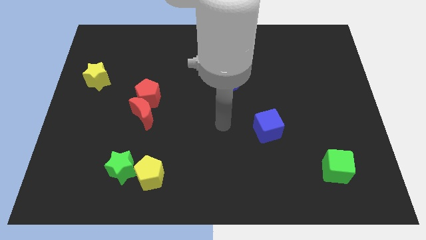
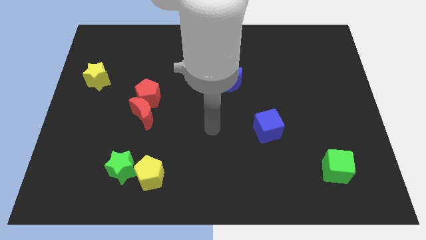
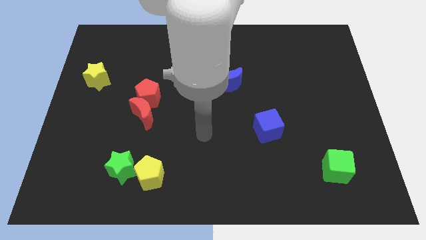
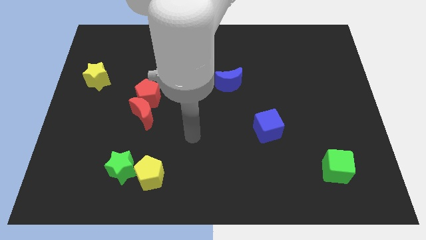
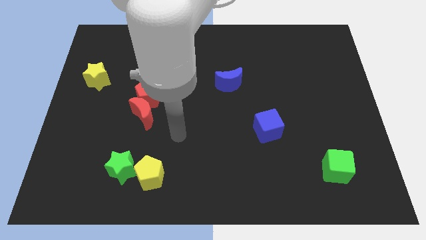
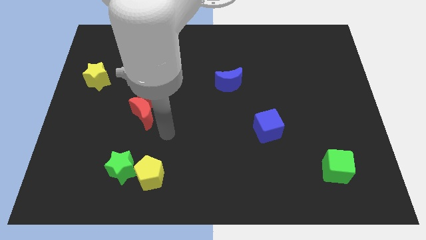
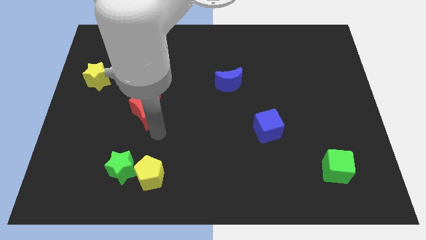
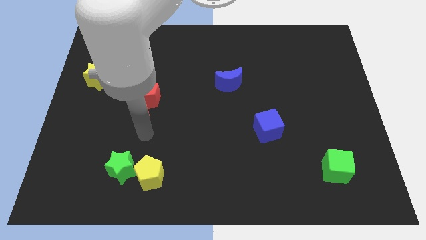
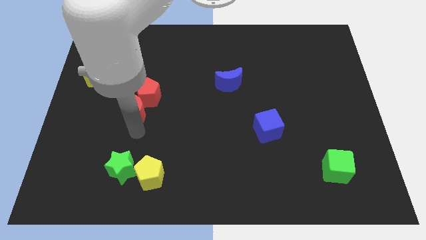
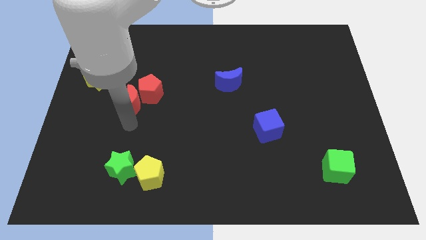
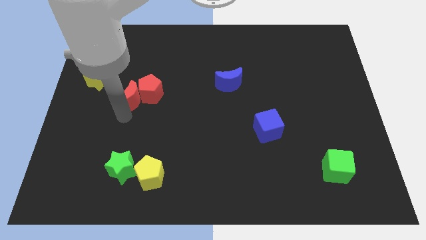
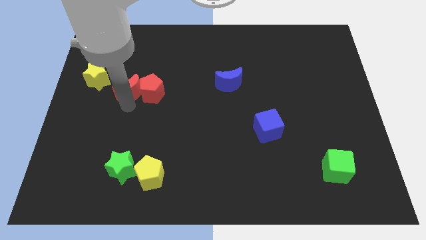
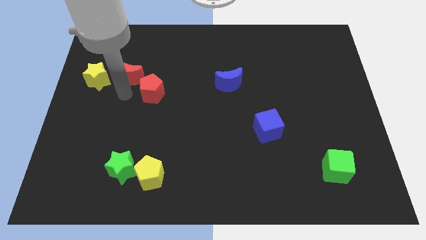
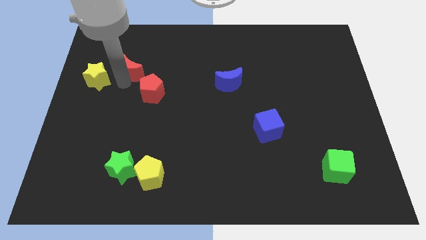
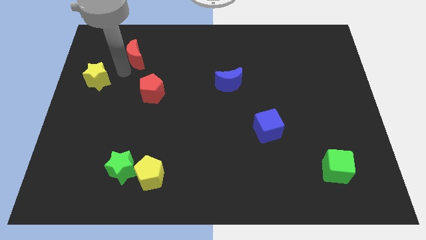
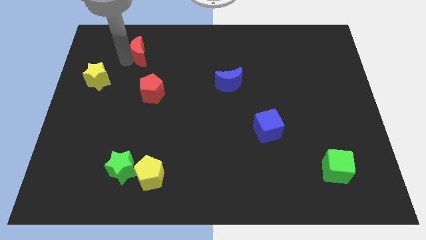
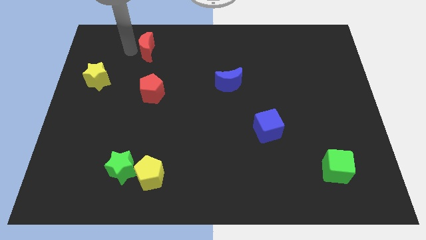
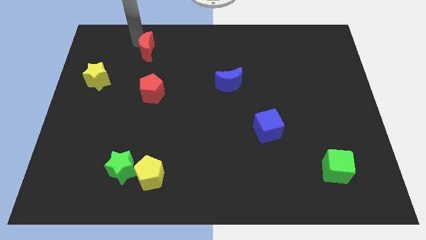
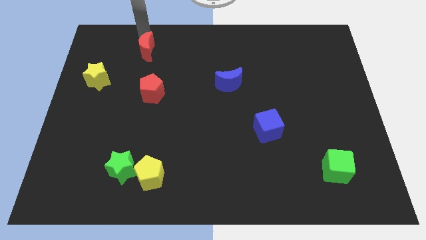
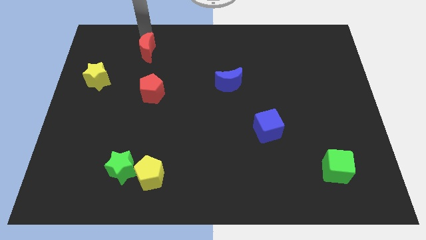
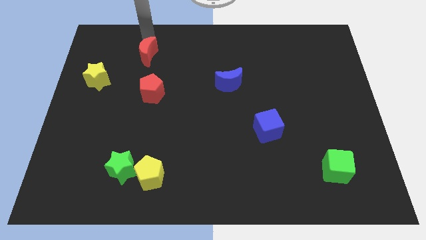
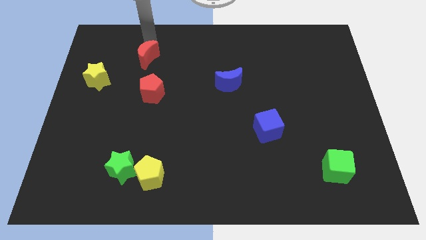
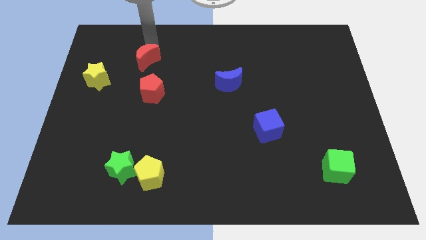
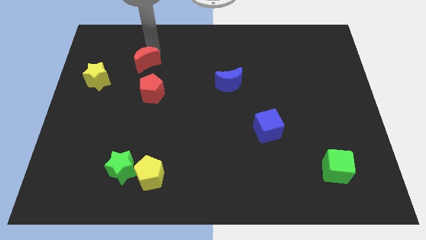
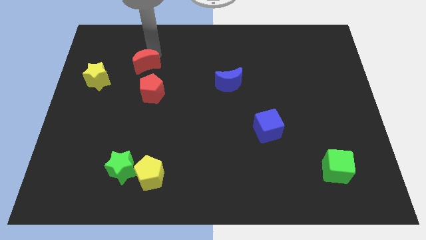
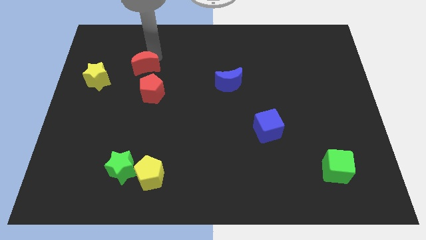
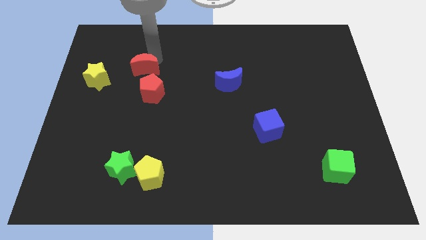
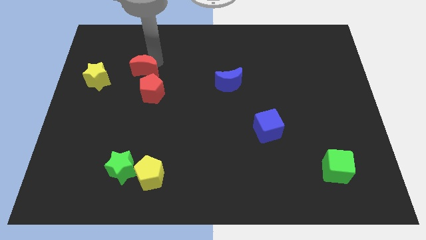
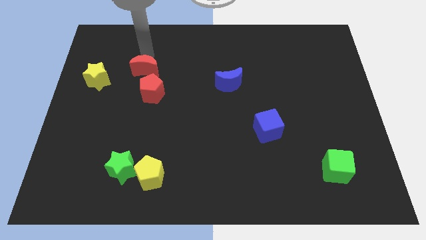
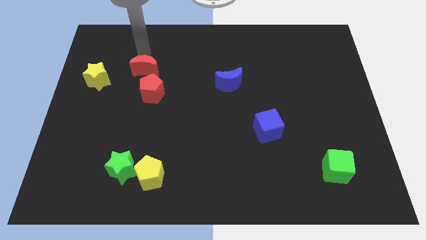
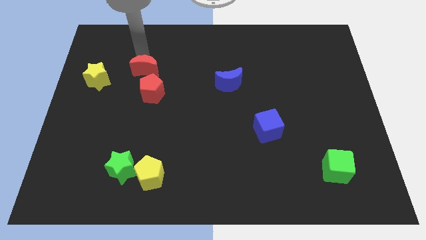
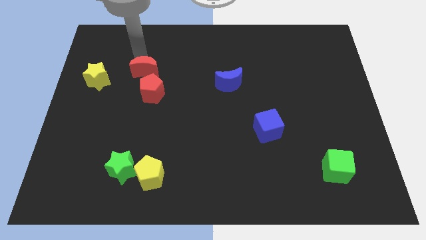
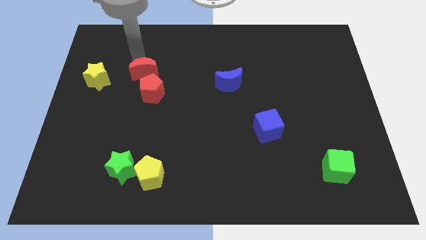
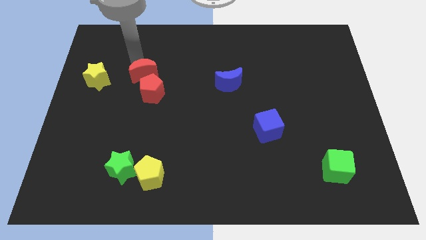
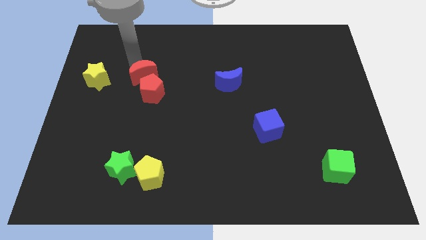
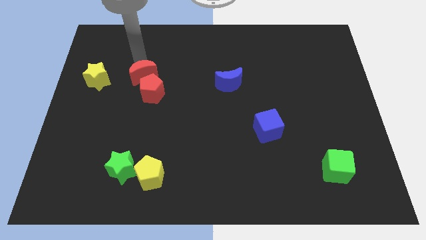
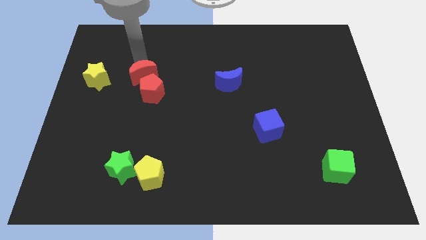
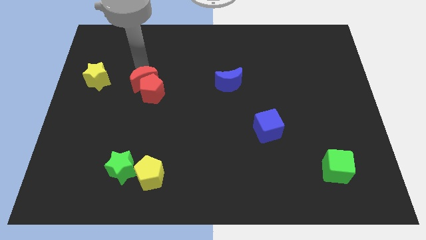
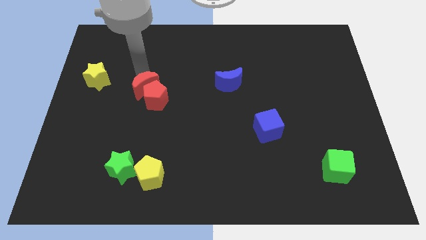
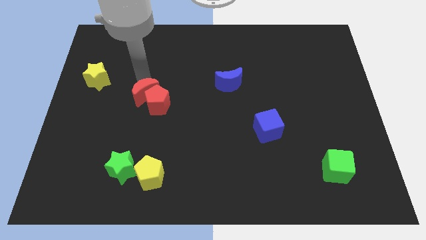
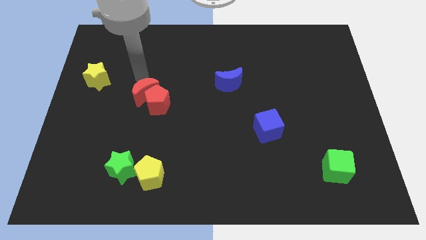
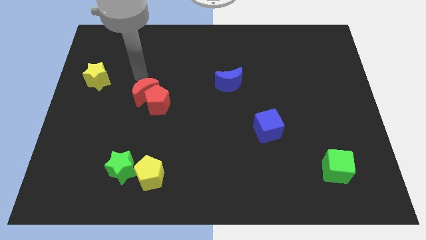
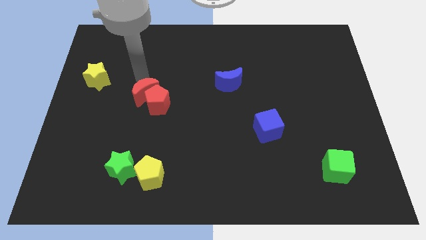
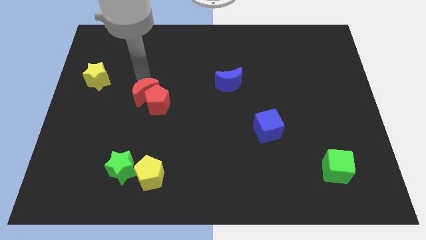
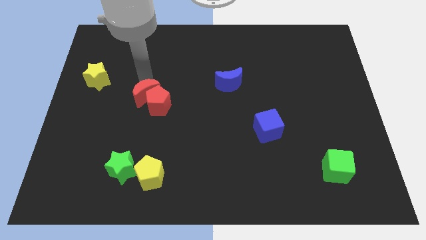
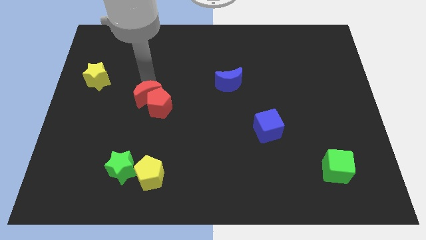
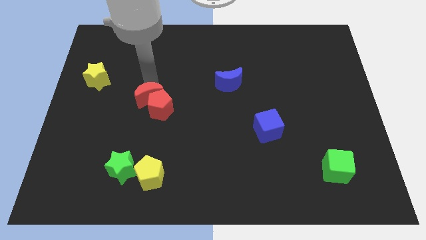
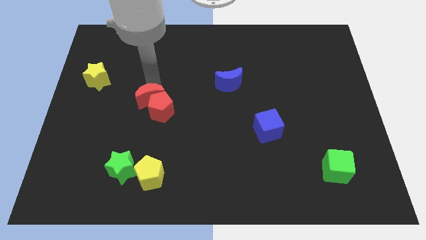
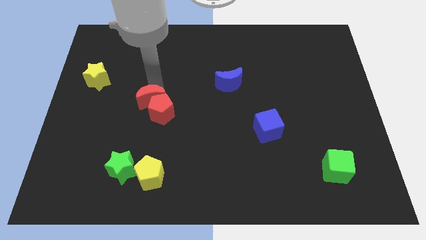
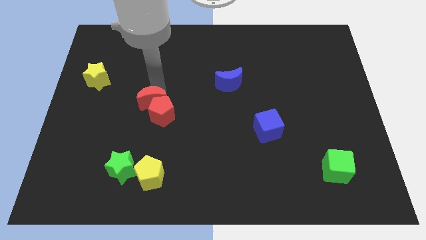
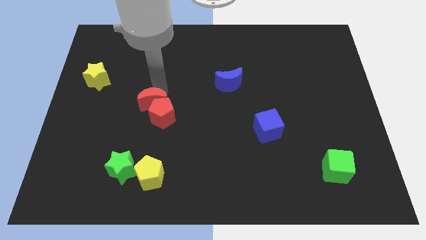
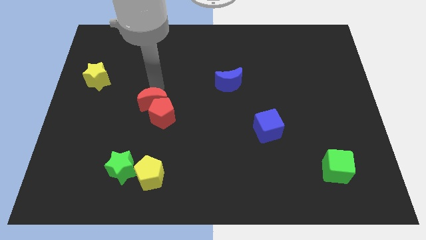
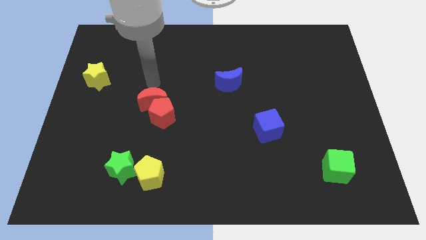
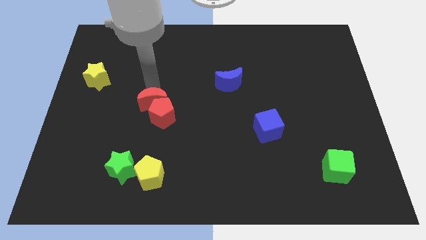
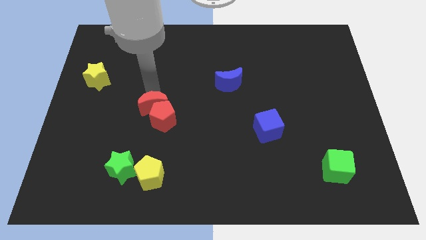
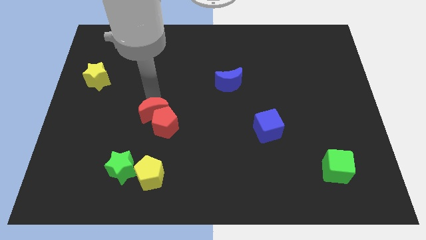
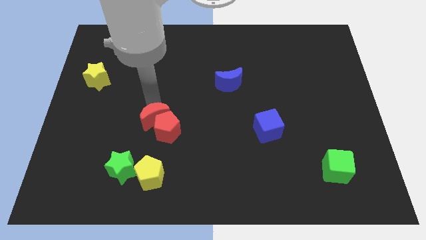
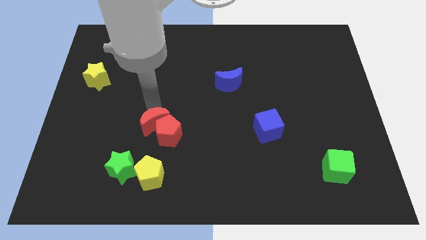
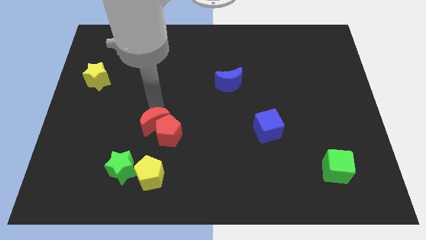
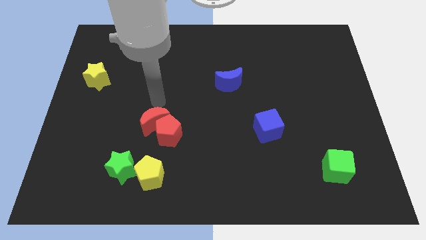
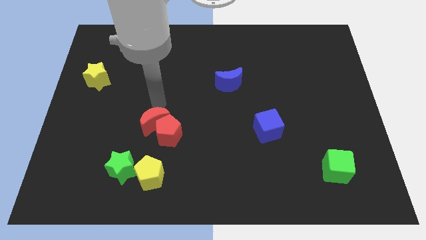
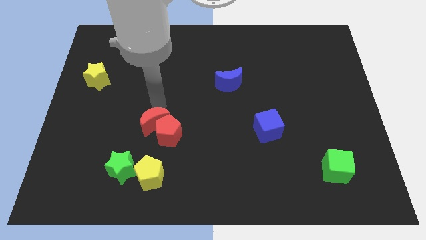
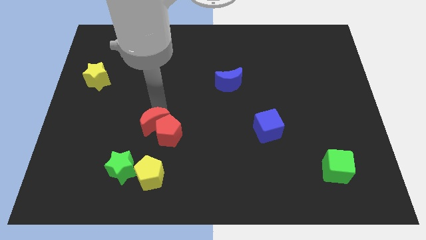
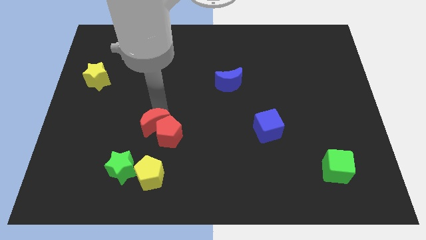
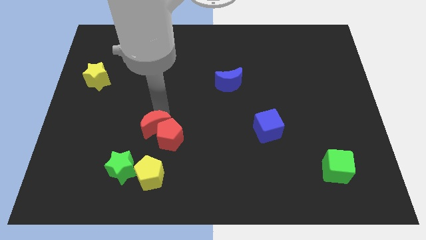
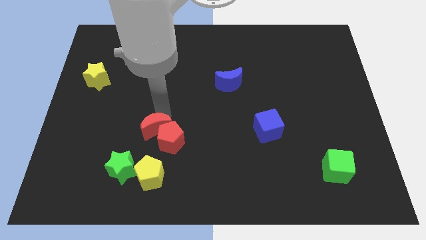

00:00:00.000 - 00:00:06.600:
put the red moon to the top right side of the green star
